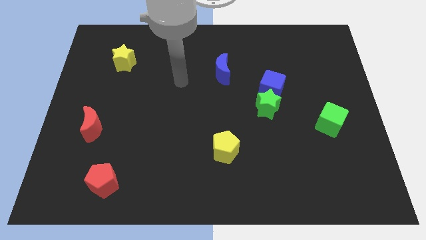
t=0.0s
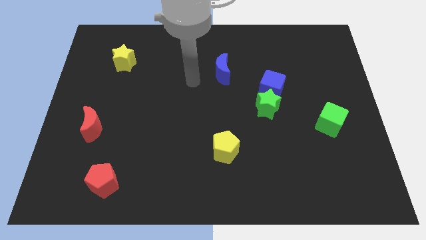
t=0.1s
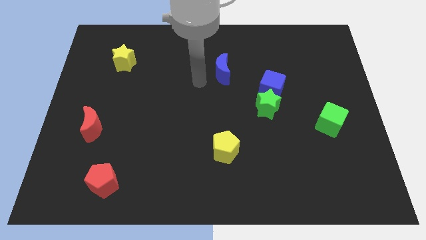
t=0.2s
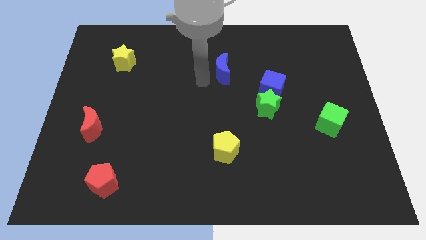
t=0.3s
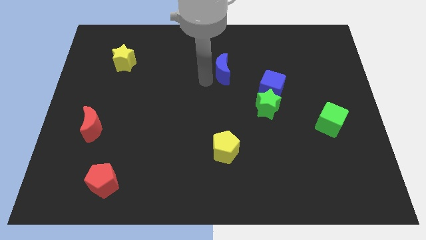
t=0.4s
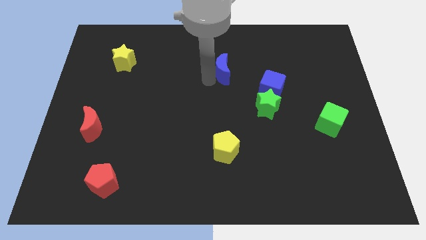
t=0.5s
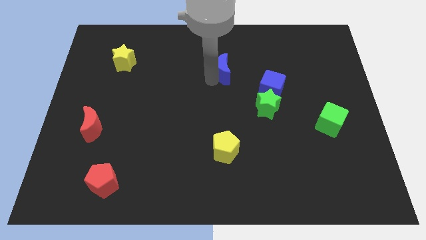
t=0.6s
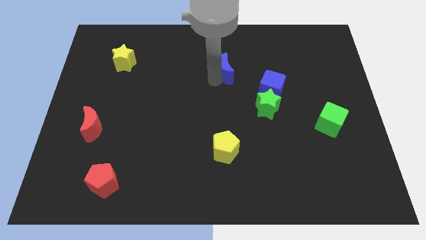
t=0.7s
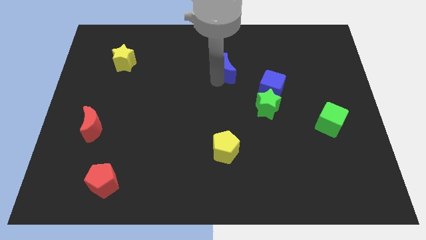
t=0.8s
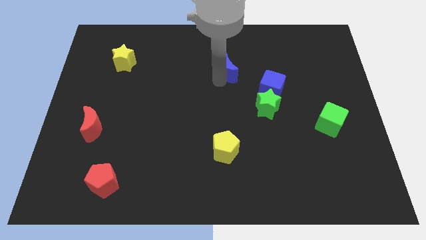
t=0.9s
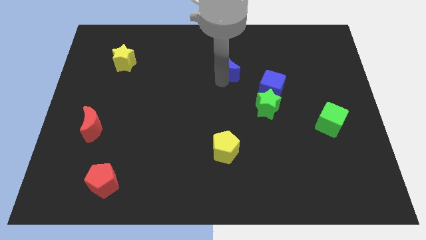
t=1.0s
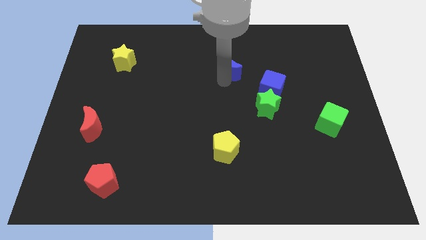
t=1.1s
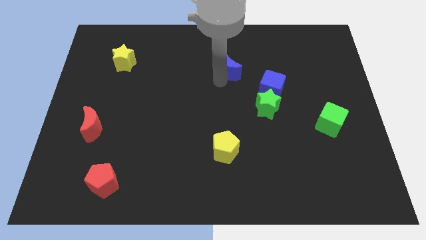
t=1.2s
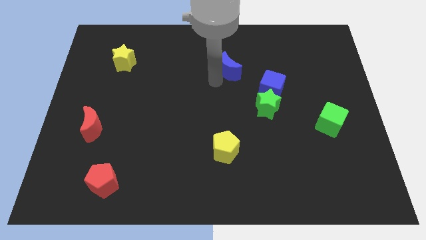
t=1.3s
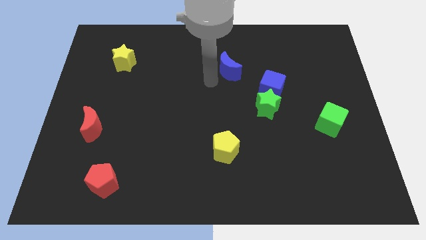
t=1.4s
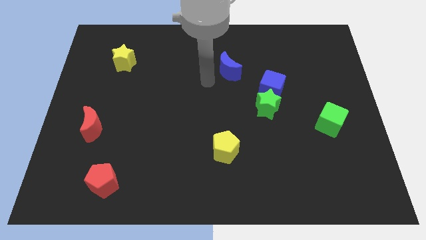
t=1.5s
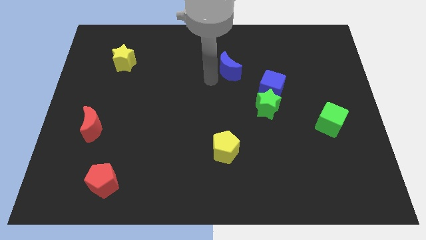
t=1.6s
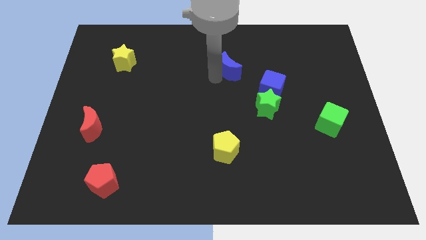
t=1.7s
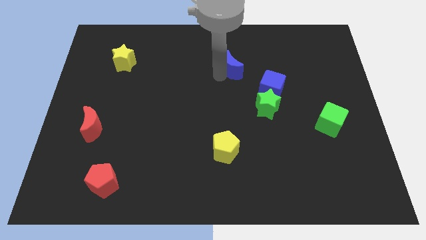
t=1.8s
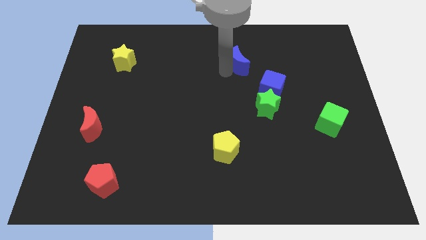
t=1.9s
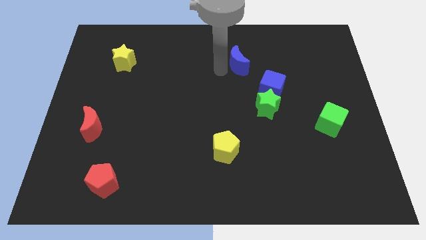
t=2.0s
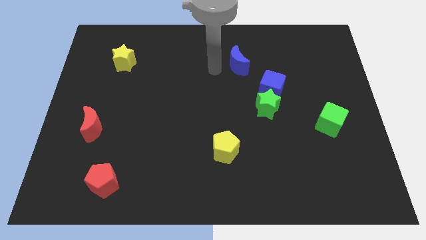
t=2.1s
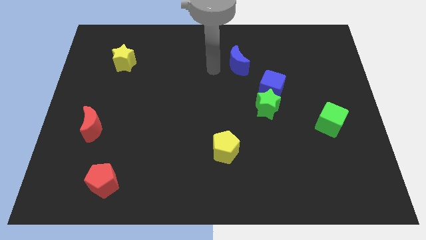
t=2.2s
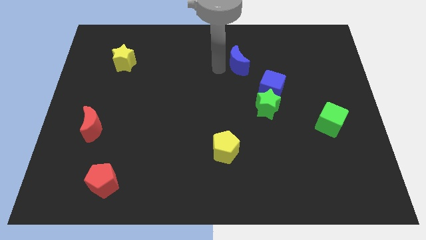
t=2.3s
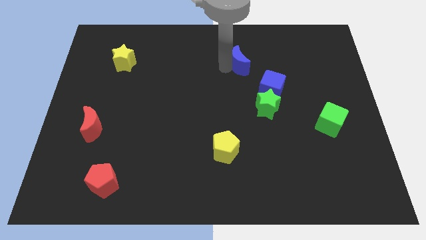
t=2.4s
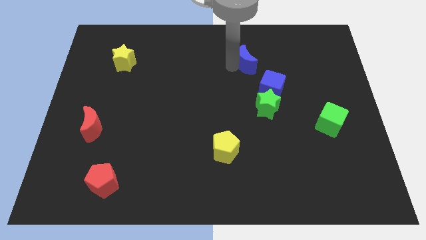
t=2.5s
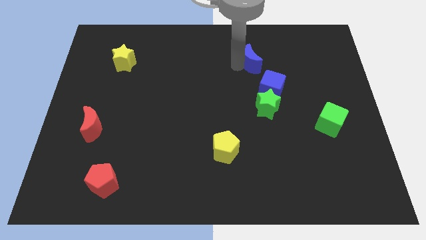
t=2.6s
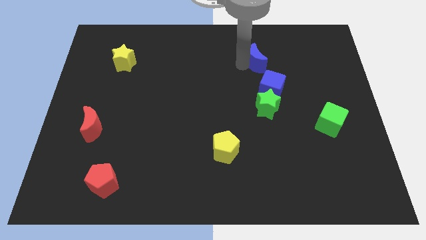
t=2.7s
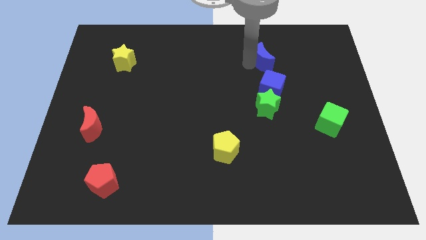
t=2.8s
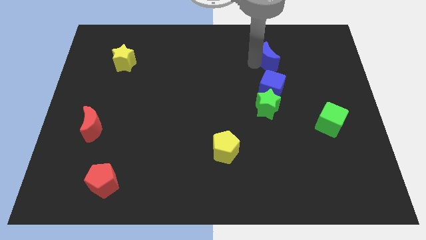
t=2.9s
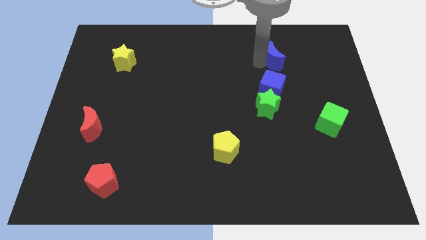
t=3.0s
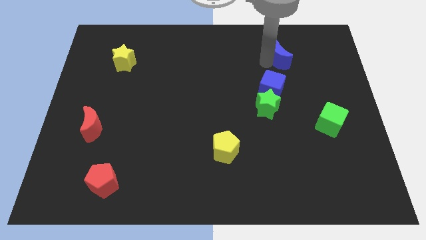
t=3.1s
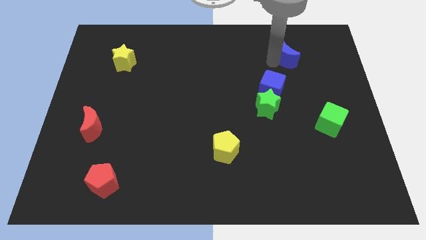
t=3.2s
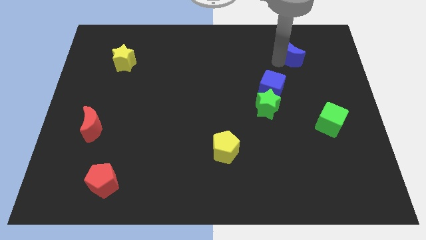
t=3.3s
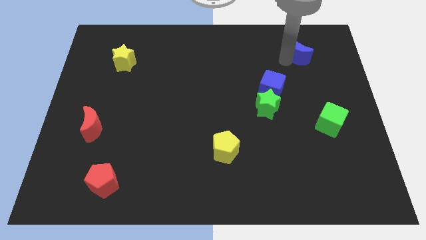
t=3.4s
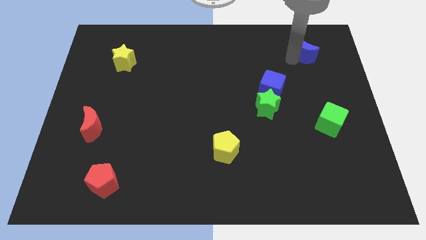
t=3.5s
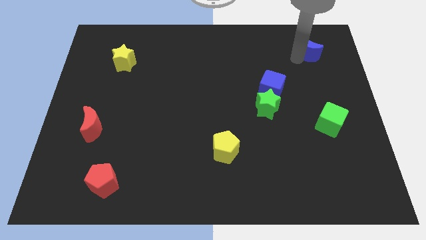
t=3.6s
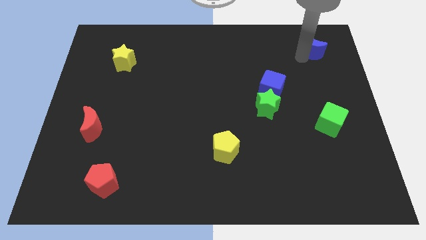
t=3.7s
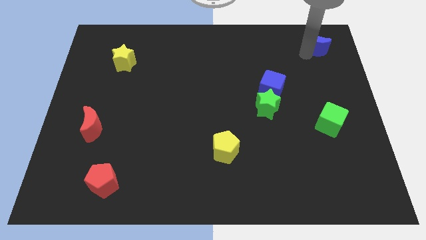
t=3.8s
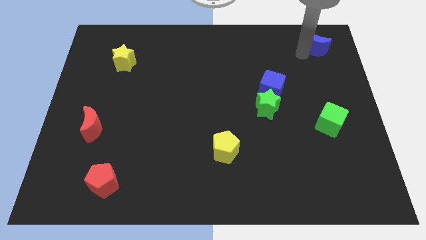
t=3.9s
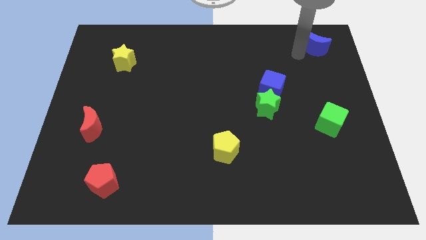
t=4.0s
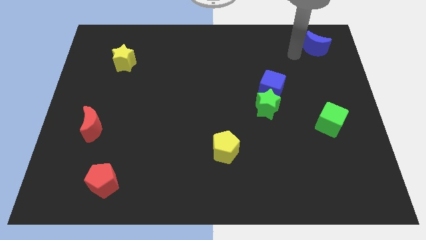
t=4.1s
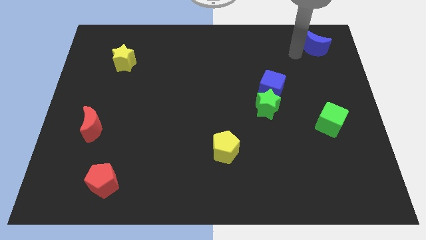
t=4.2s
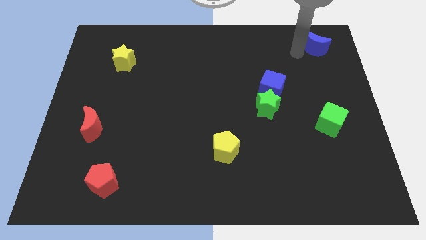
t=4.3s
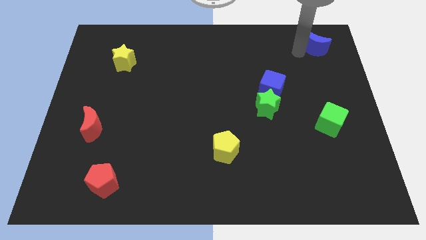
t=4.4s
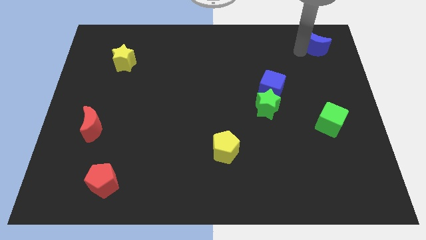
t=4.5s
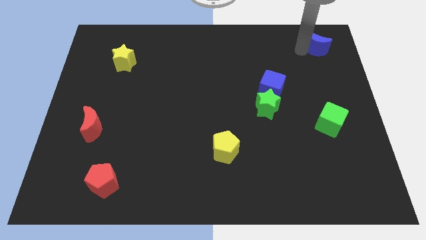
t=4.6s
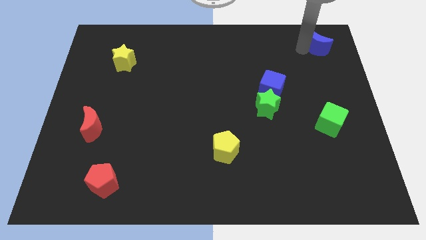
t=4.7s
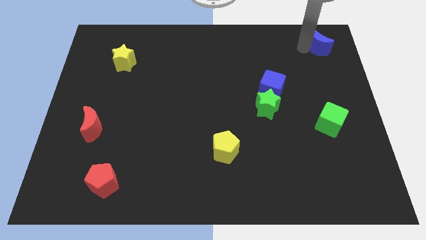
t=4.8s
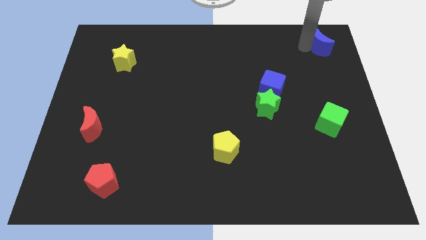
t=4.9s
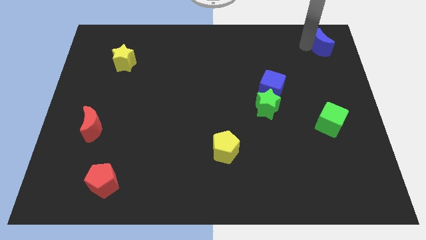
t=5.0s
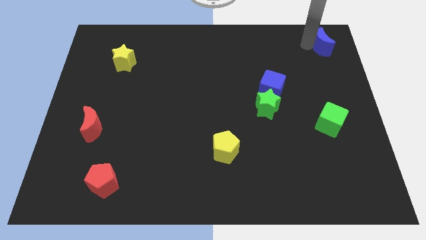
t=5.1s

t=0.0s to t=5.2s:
move the blue moon to the upper right corner
